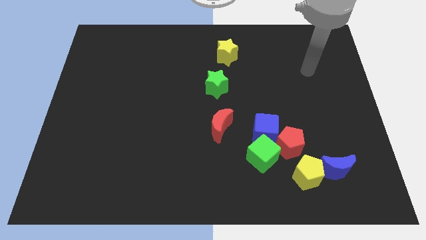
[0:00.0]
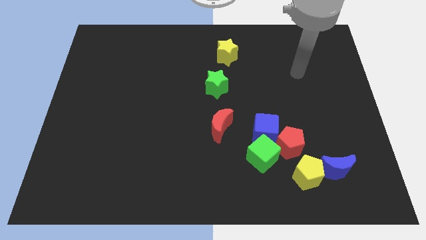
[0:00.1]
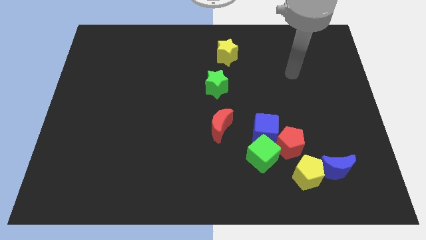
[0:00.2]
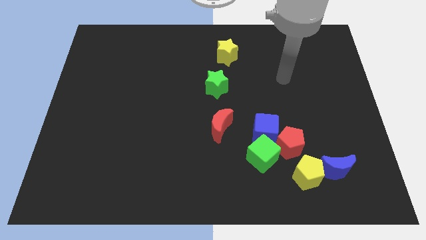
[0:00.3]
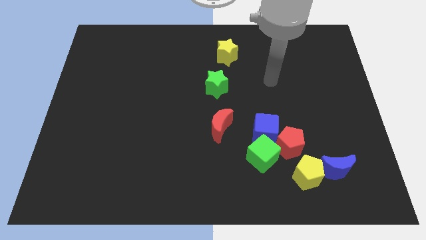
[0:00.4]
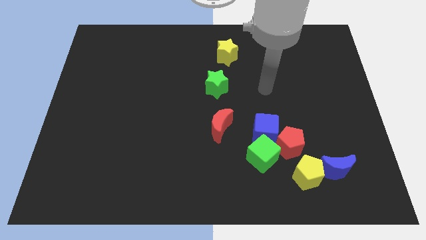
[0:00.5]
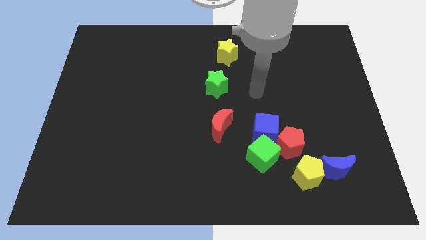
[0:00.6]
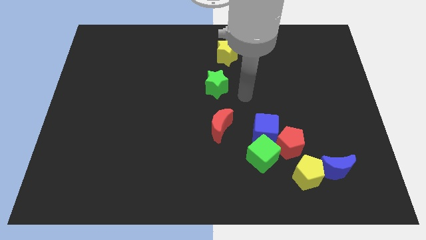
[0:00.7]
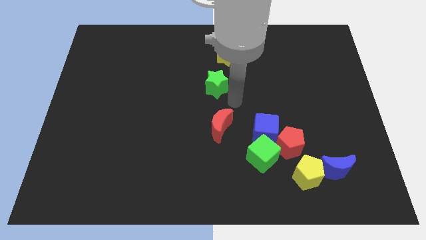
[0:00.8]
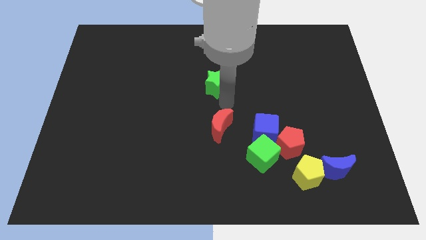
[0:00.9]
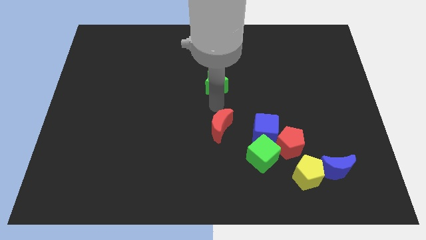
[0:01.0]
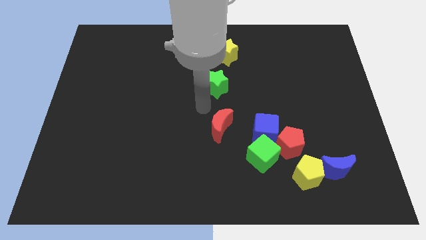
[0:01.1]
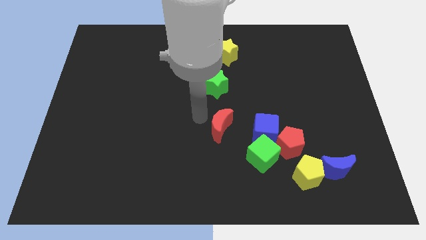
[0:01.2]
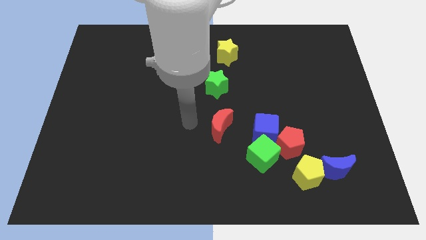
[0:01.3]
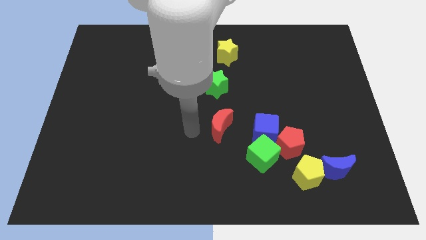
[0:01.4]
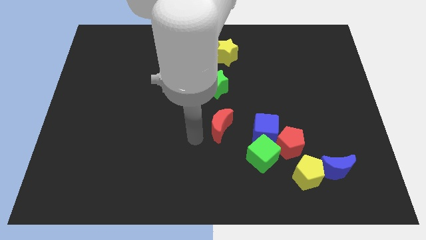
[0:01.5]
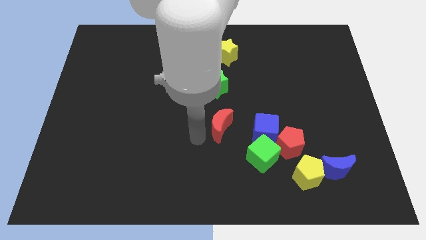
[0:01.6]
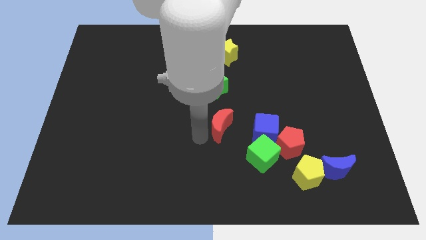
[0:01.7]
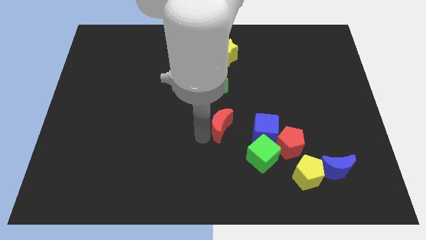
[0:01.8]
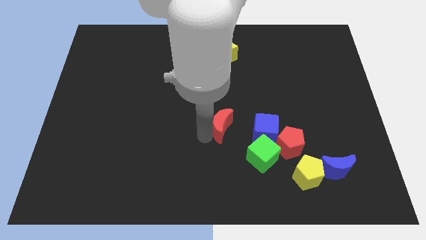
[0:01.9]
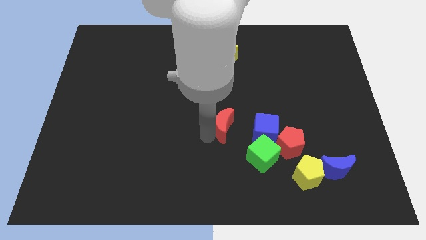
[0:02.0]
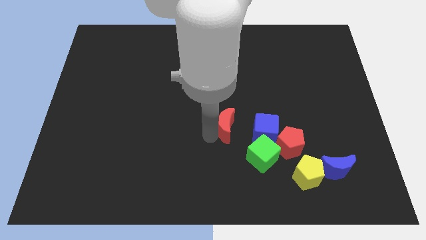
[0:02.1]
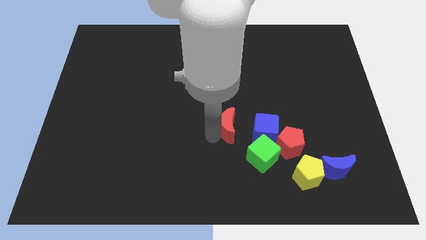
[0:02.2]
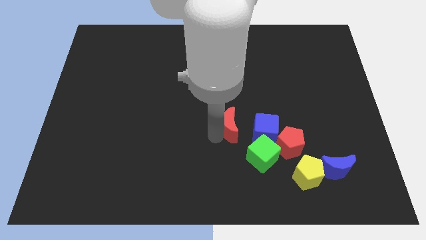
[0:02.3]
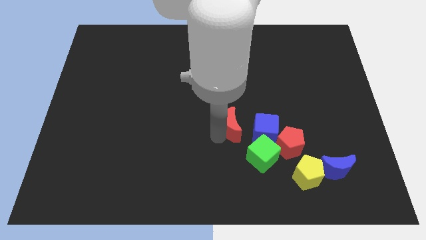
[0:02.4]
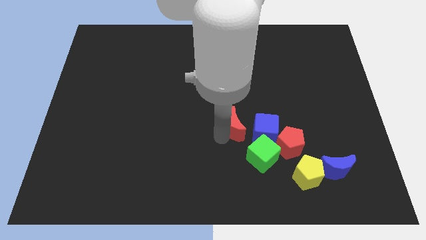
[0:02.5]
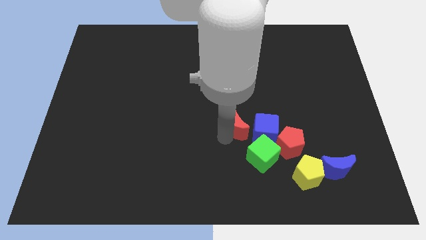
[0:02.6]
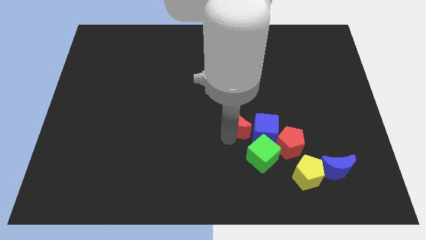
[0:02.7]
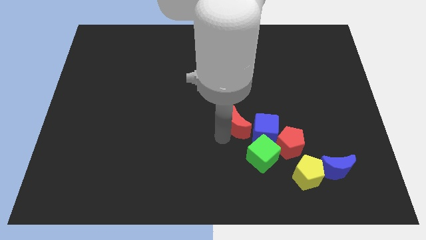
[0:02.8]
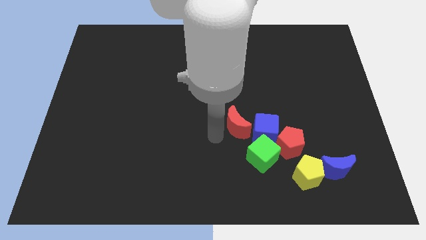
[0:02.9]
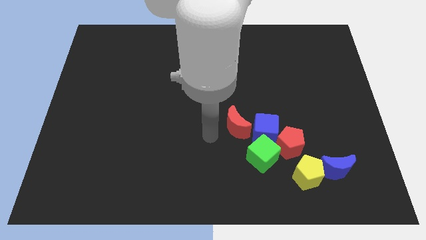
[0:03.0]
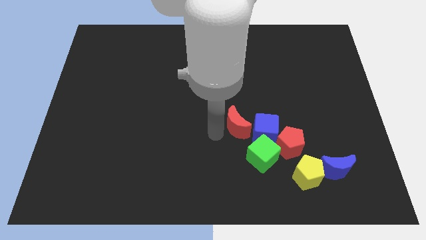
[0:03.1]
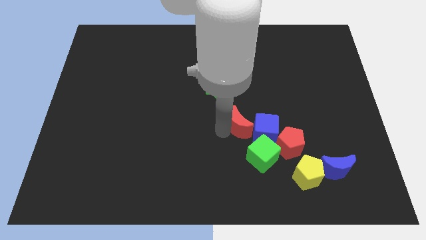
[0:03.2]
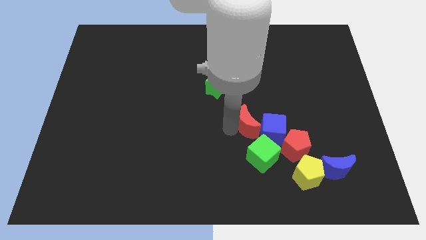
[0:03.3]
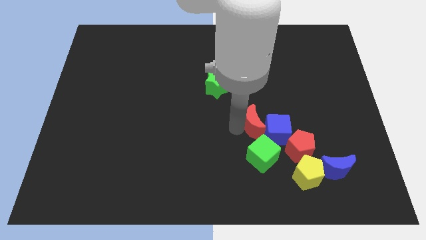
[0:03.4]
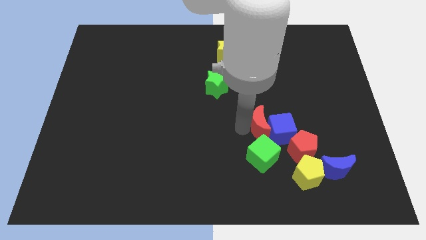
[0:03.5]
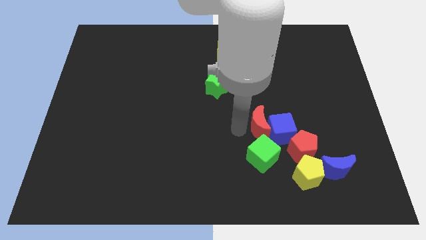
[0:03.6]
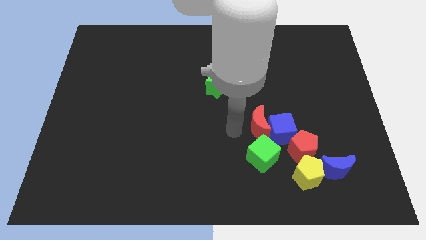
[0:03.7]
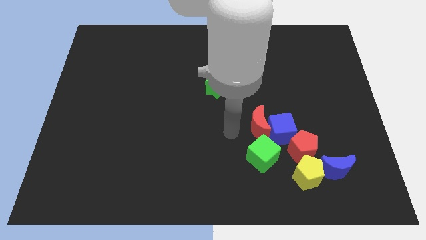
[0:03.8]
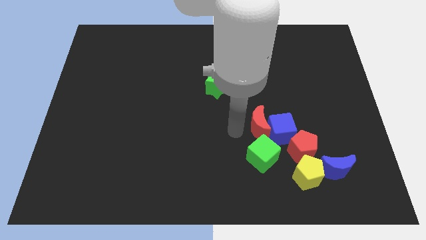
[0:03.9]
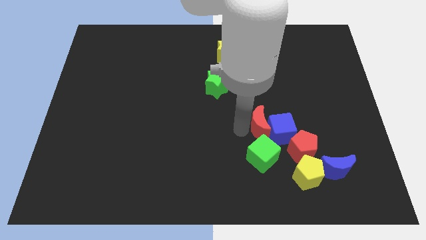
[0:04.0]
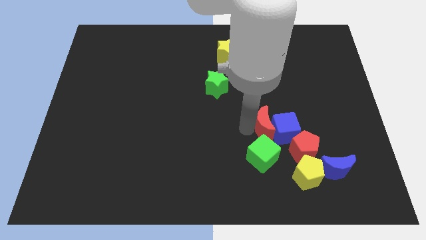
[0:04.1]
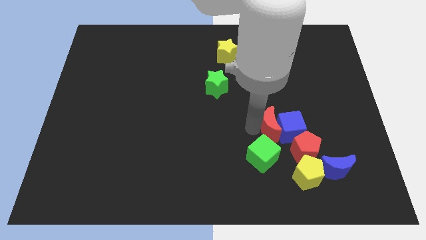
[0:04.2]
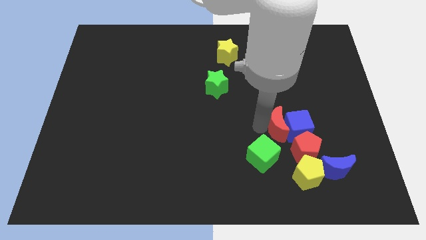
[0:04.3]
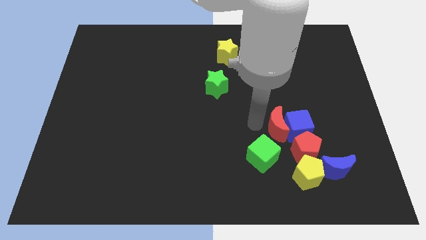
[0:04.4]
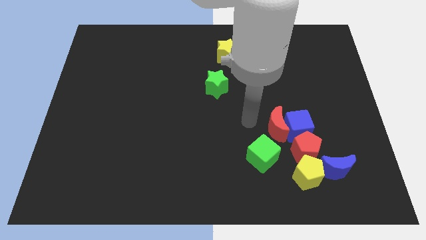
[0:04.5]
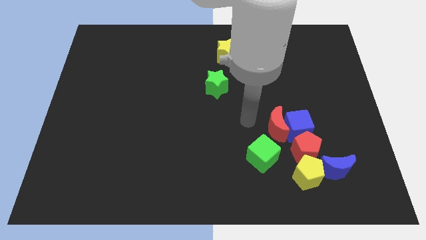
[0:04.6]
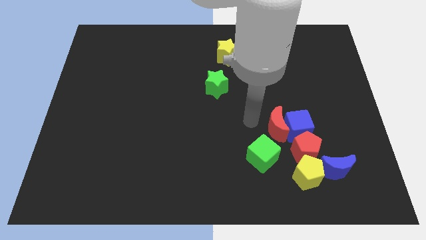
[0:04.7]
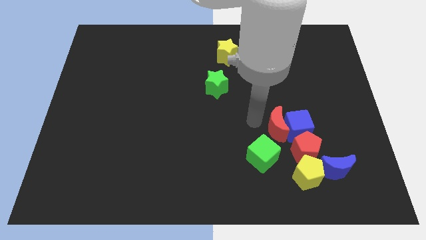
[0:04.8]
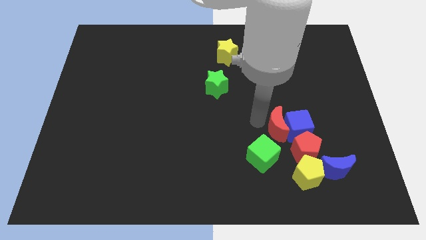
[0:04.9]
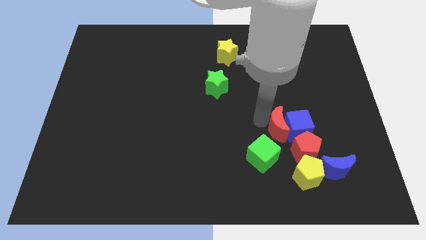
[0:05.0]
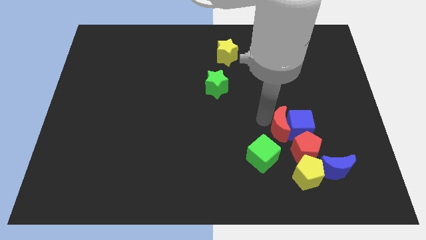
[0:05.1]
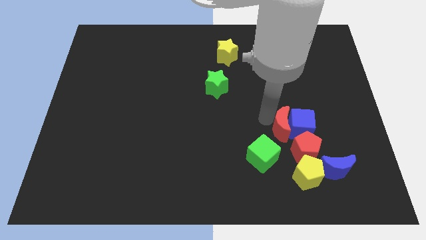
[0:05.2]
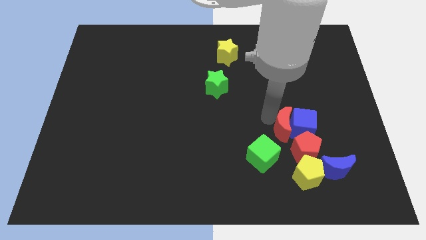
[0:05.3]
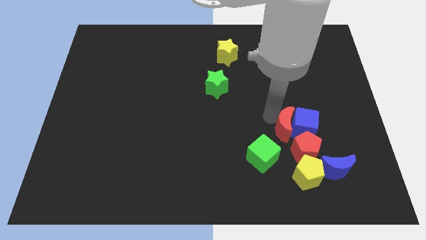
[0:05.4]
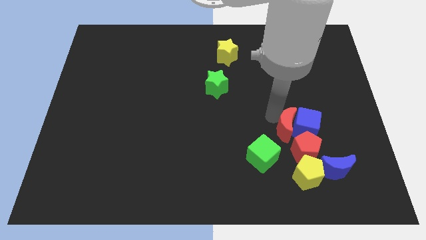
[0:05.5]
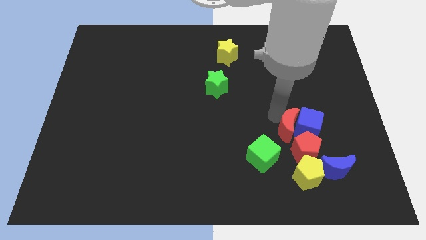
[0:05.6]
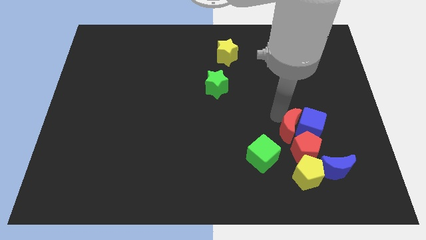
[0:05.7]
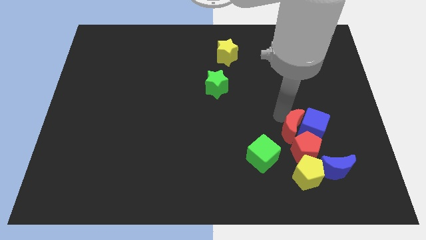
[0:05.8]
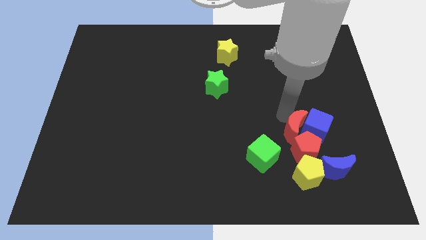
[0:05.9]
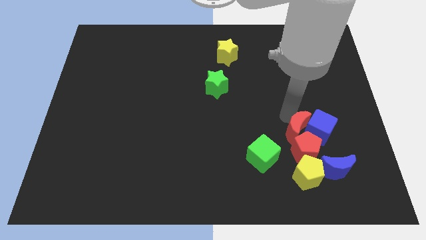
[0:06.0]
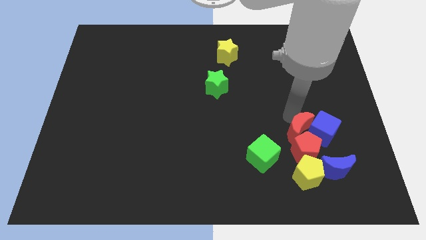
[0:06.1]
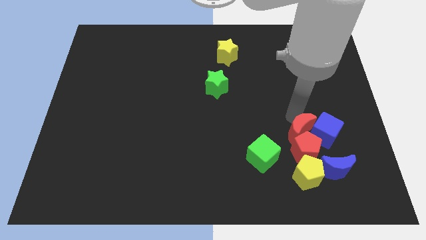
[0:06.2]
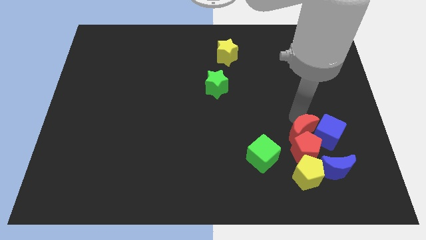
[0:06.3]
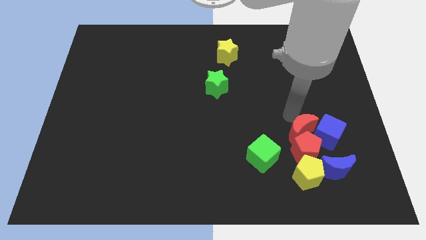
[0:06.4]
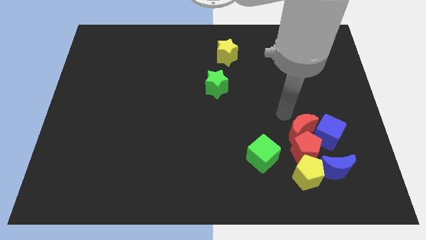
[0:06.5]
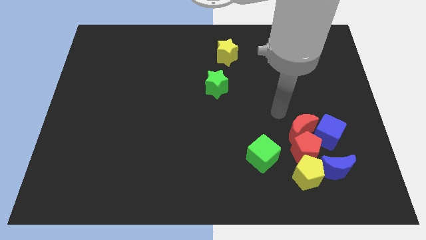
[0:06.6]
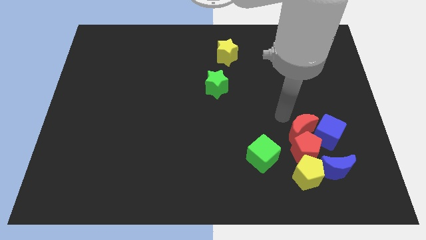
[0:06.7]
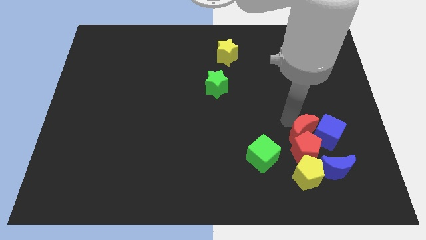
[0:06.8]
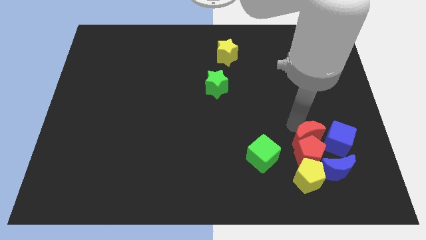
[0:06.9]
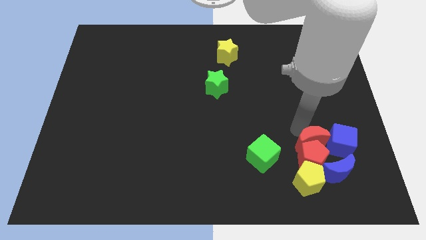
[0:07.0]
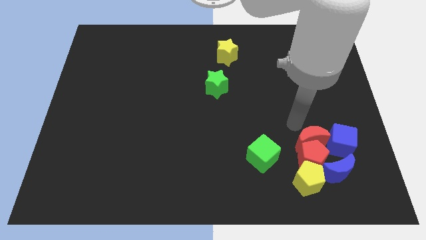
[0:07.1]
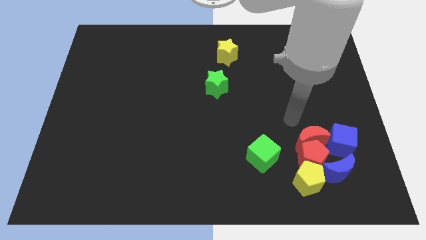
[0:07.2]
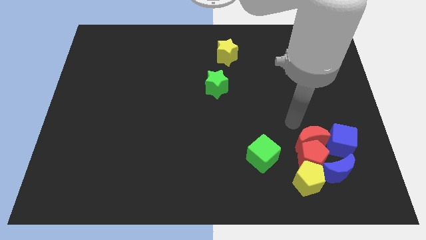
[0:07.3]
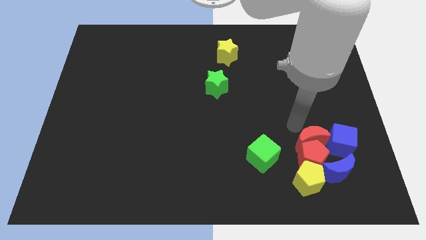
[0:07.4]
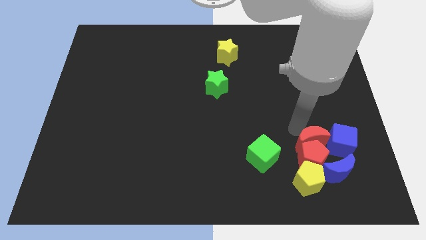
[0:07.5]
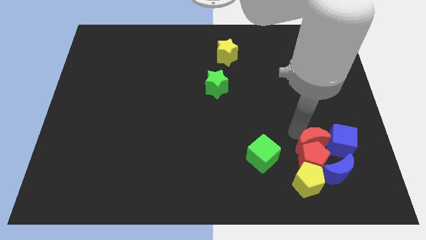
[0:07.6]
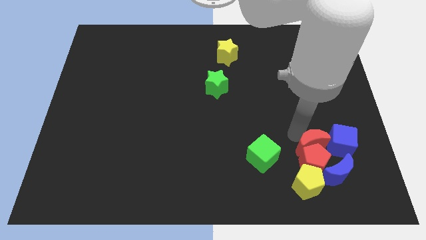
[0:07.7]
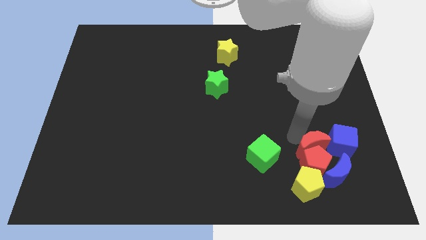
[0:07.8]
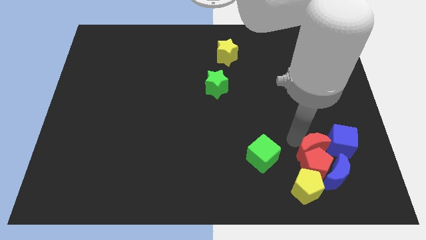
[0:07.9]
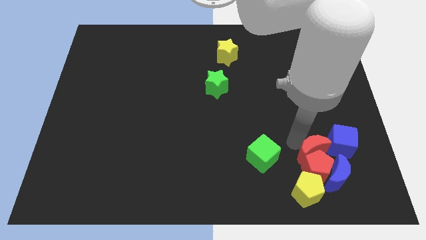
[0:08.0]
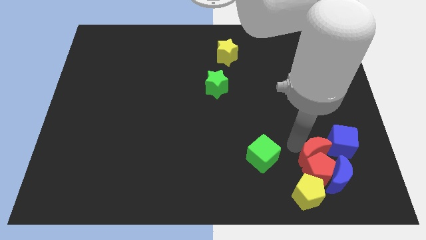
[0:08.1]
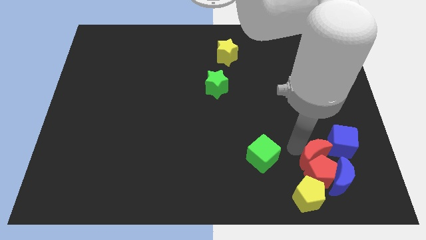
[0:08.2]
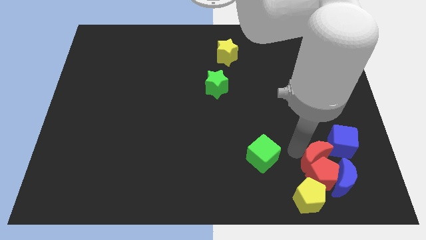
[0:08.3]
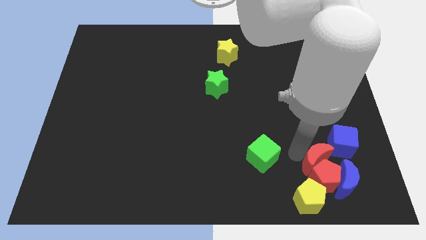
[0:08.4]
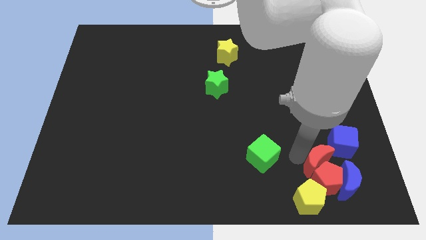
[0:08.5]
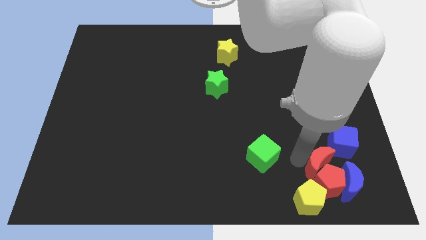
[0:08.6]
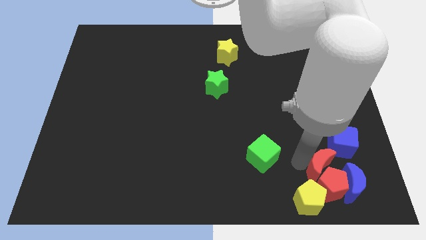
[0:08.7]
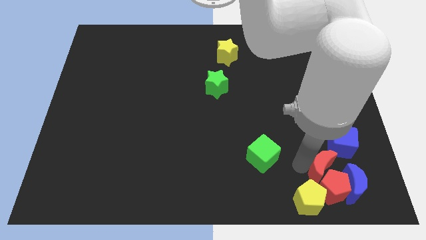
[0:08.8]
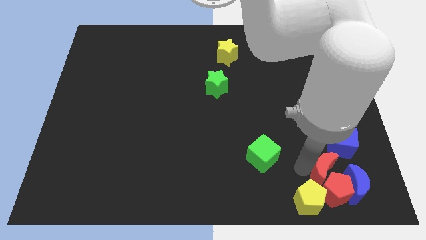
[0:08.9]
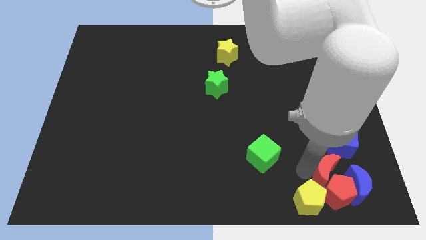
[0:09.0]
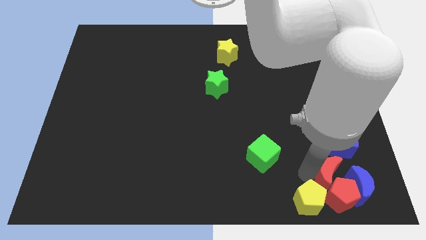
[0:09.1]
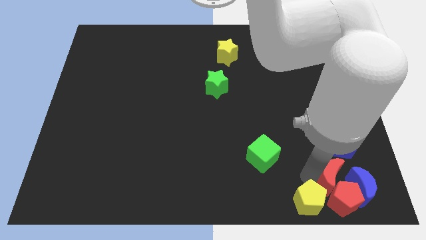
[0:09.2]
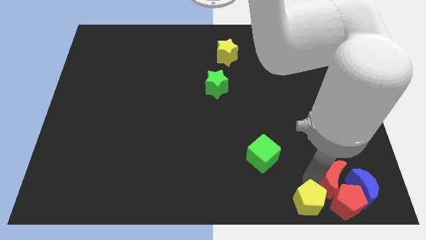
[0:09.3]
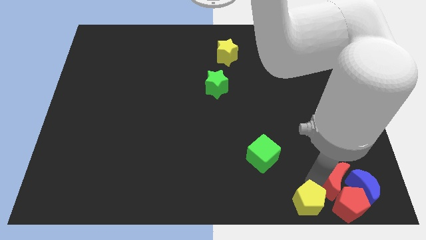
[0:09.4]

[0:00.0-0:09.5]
push the red moon close to the blue moon
